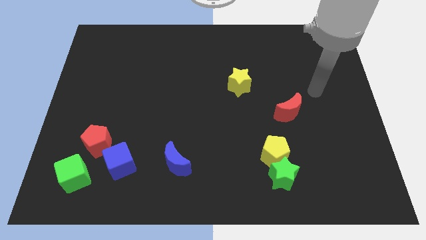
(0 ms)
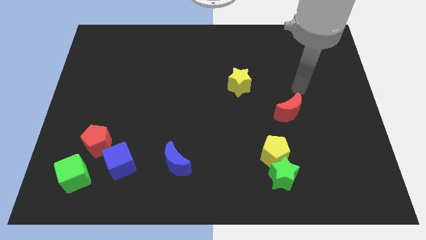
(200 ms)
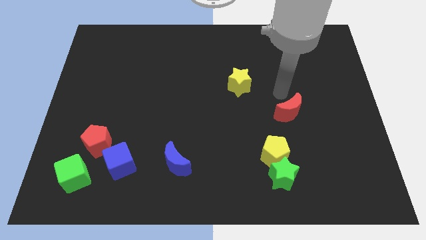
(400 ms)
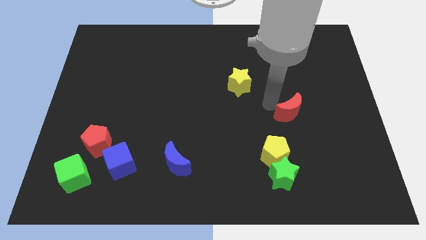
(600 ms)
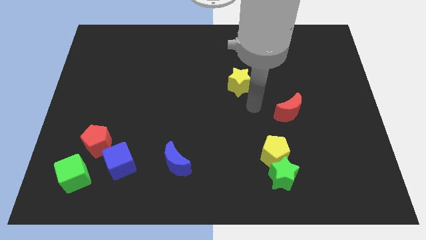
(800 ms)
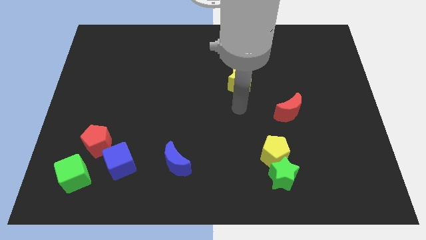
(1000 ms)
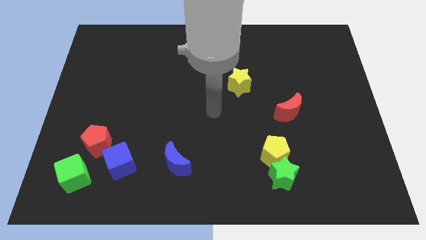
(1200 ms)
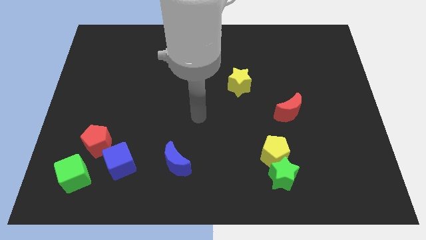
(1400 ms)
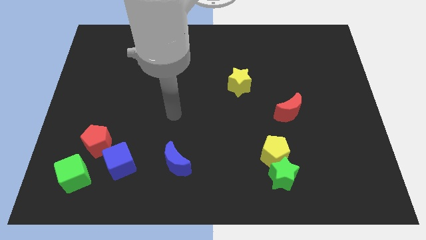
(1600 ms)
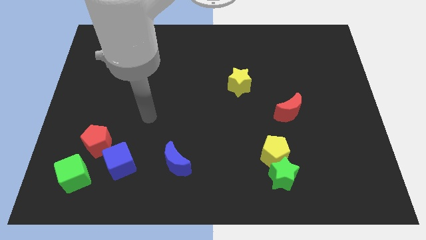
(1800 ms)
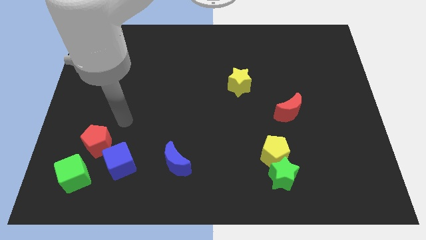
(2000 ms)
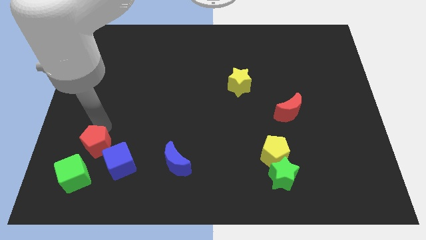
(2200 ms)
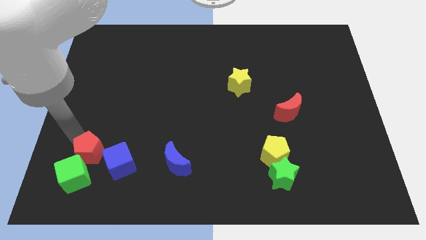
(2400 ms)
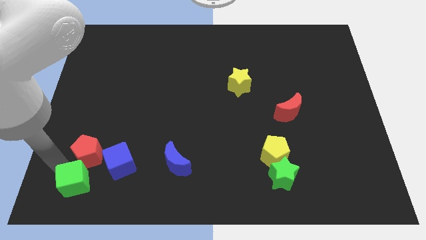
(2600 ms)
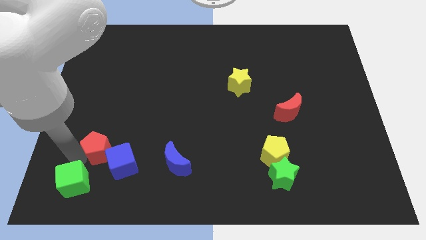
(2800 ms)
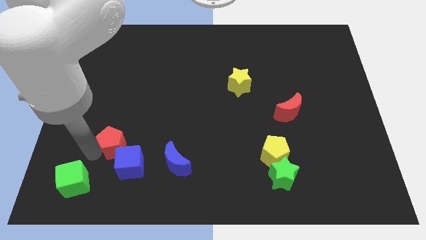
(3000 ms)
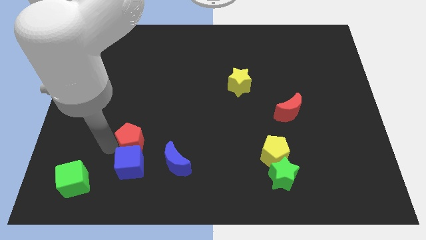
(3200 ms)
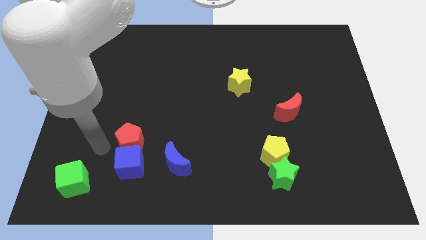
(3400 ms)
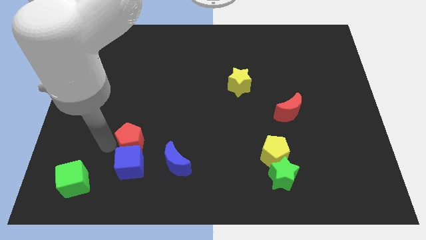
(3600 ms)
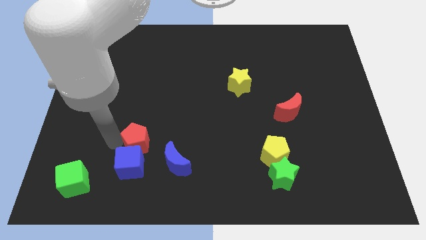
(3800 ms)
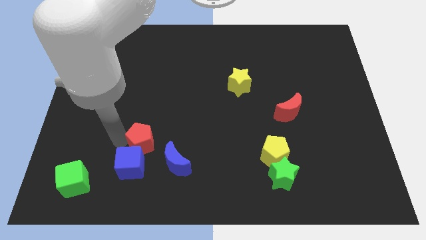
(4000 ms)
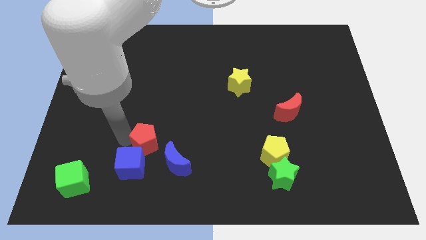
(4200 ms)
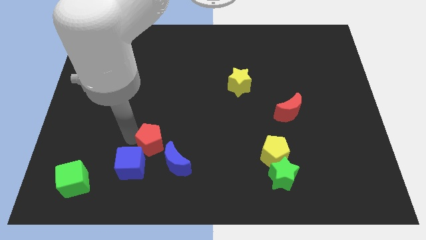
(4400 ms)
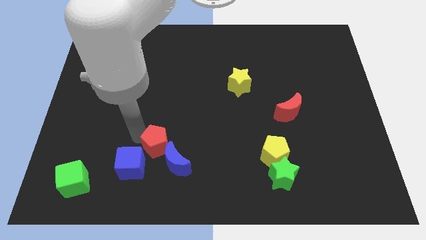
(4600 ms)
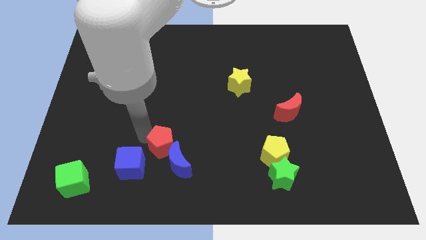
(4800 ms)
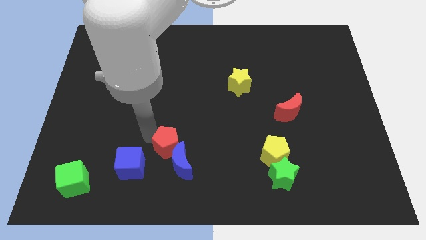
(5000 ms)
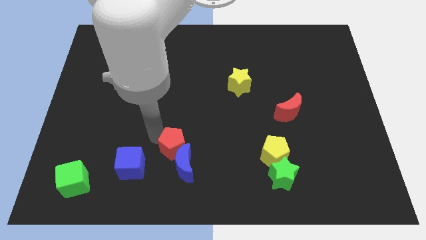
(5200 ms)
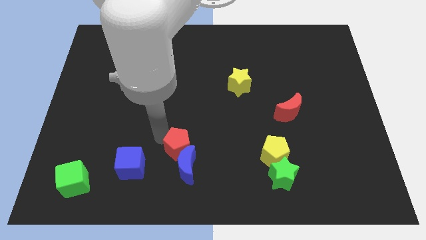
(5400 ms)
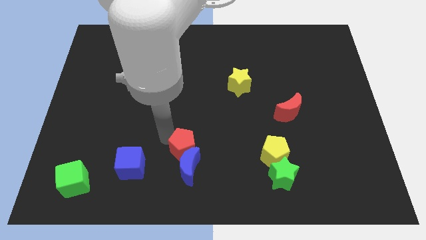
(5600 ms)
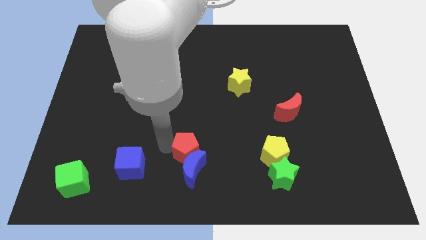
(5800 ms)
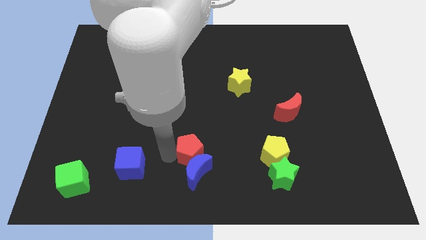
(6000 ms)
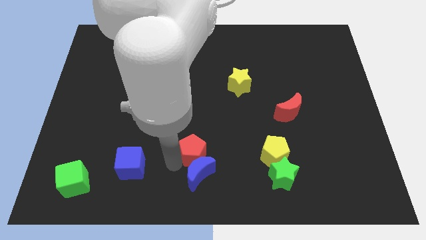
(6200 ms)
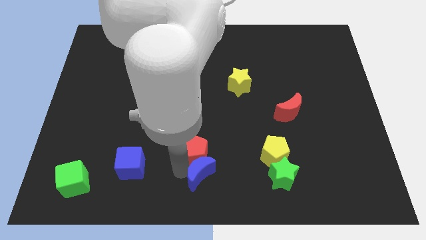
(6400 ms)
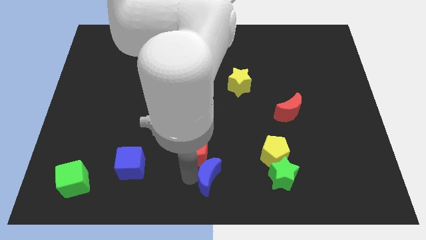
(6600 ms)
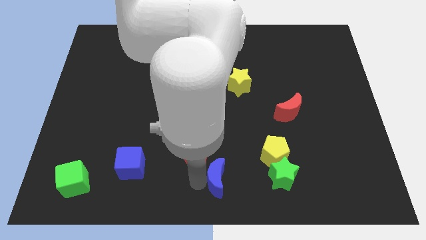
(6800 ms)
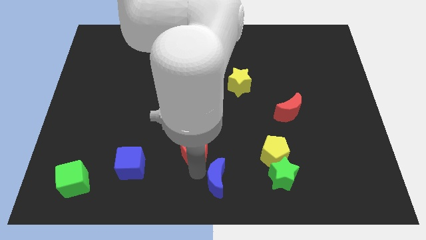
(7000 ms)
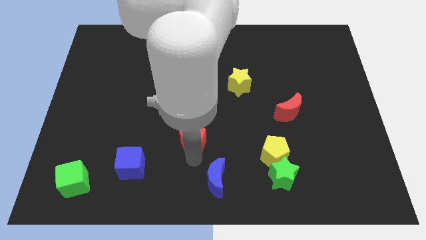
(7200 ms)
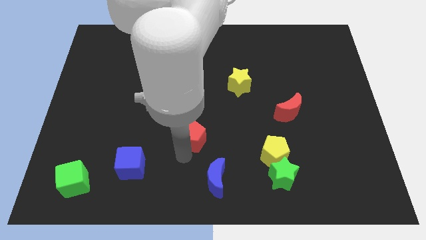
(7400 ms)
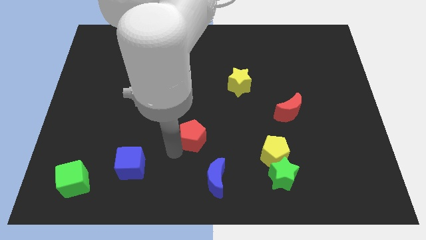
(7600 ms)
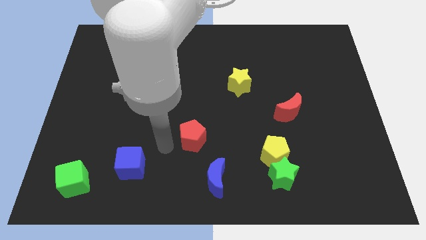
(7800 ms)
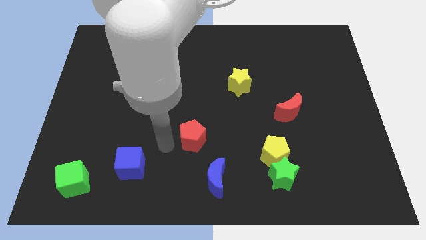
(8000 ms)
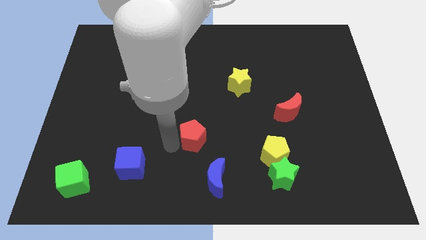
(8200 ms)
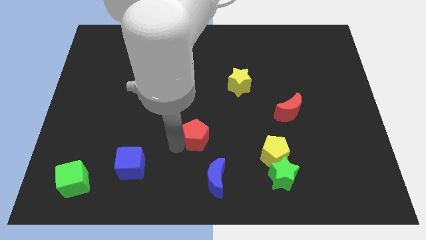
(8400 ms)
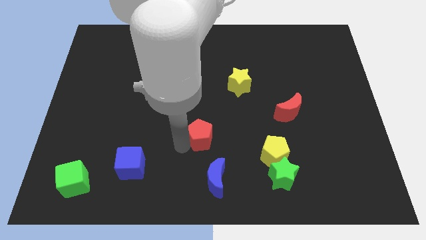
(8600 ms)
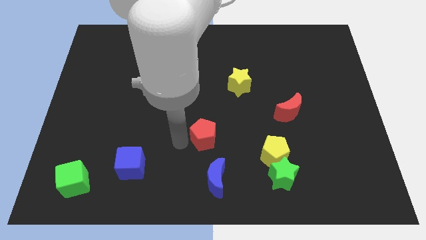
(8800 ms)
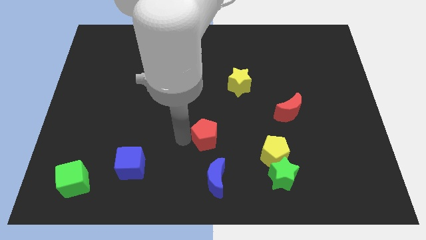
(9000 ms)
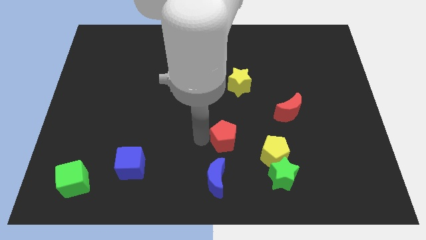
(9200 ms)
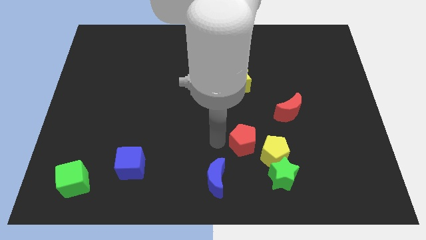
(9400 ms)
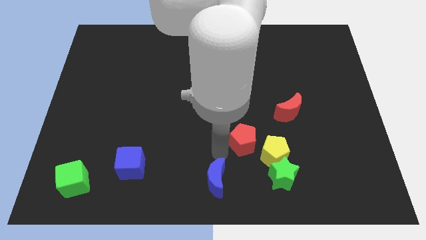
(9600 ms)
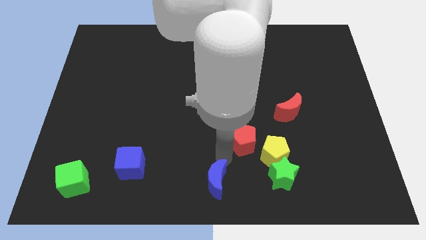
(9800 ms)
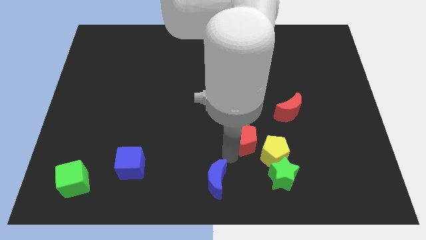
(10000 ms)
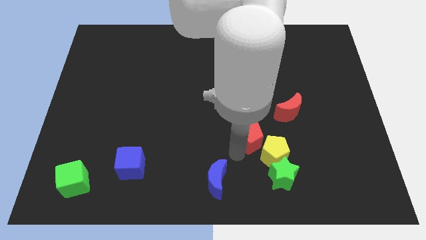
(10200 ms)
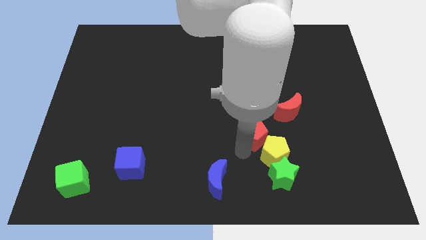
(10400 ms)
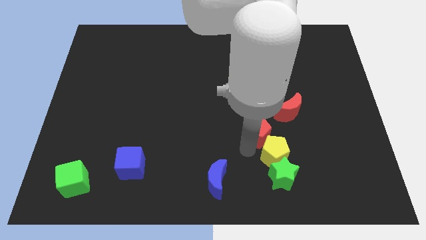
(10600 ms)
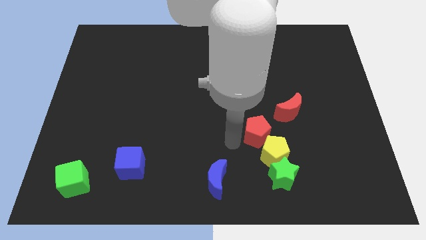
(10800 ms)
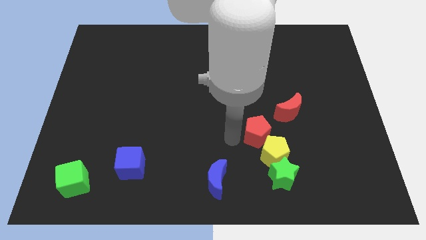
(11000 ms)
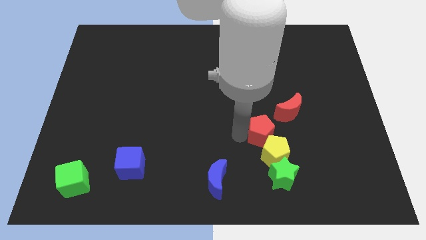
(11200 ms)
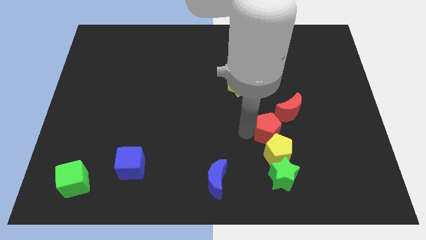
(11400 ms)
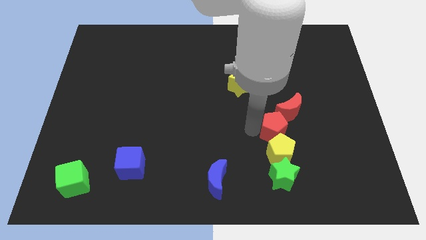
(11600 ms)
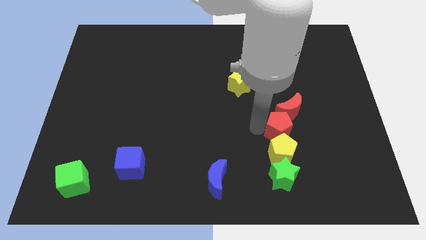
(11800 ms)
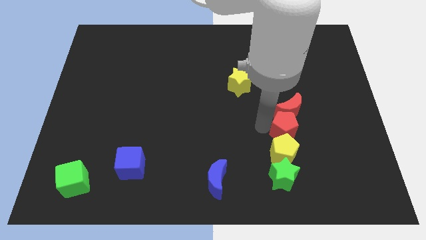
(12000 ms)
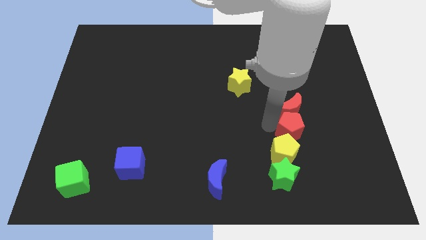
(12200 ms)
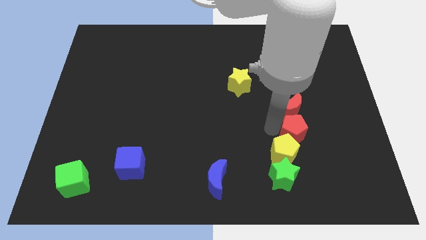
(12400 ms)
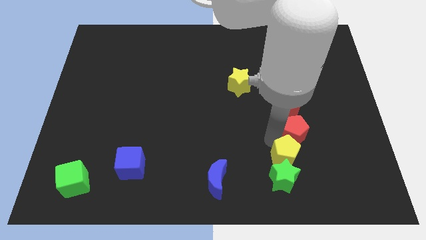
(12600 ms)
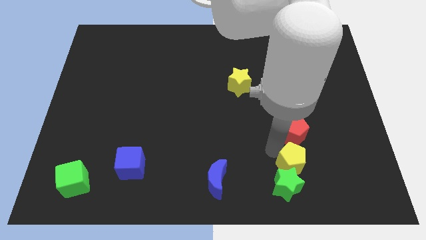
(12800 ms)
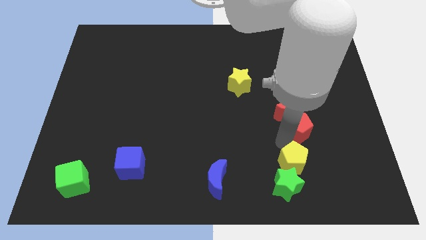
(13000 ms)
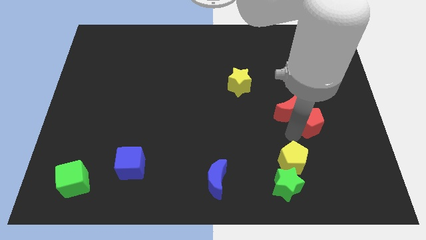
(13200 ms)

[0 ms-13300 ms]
move the red pentagon right of the red moon

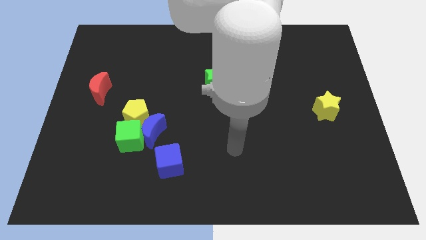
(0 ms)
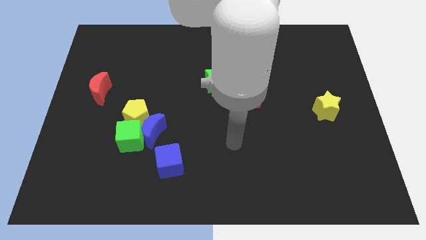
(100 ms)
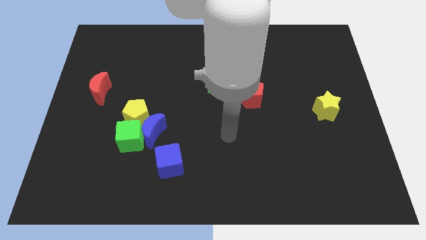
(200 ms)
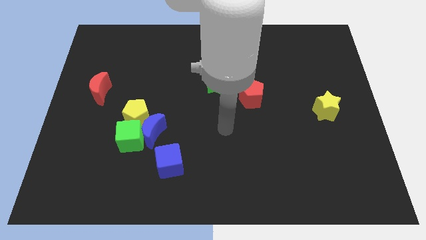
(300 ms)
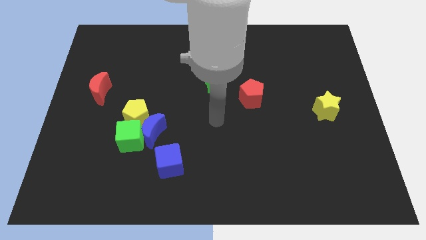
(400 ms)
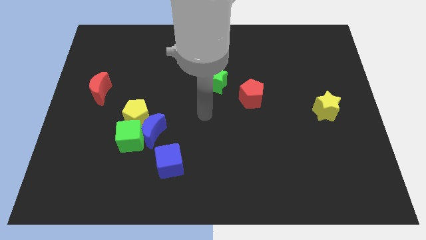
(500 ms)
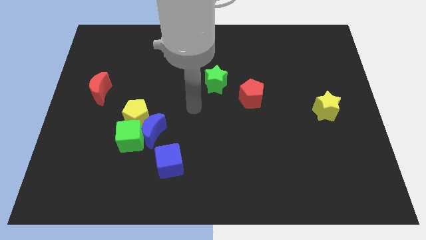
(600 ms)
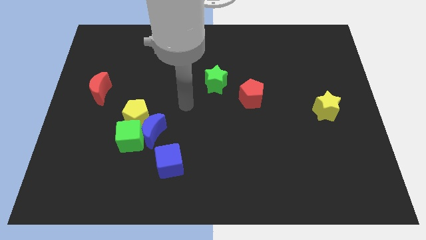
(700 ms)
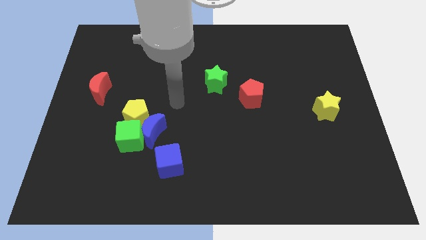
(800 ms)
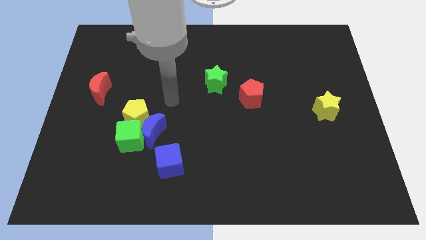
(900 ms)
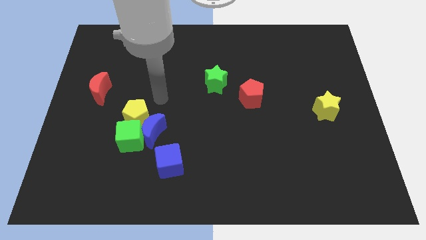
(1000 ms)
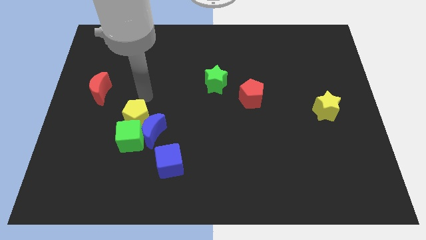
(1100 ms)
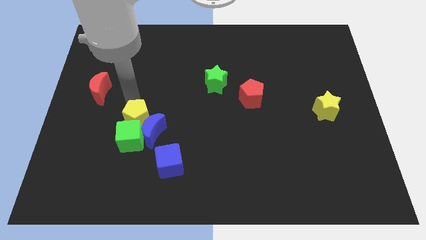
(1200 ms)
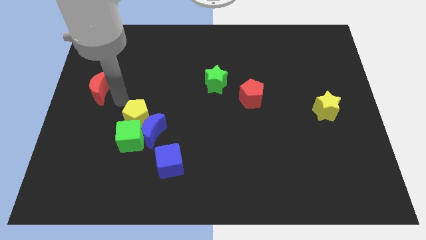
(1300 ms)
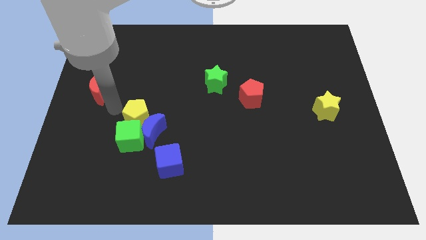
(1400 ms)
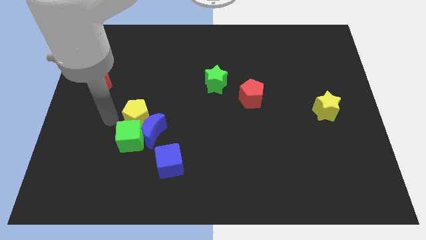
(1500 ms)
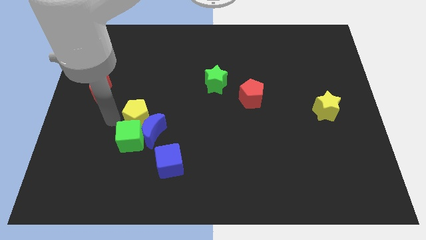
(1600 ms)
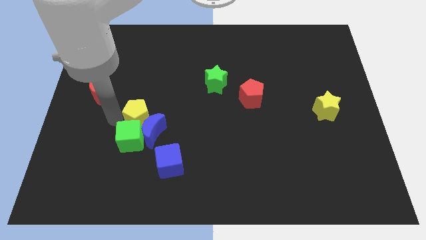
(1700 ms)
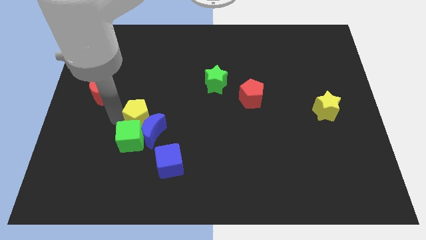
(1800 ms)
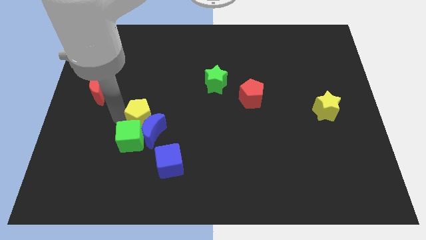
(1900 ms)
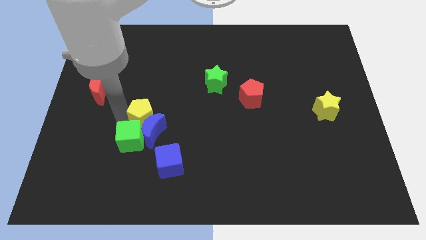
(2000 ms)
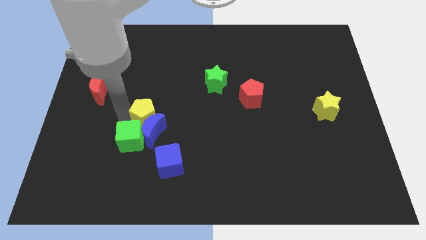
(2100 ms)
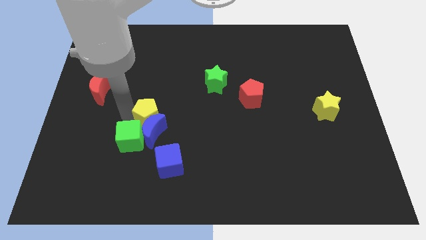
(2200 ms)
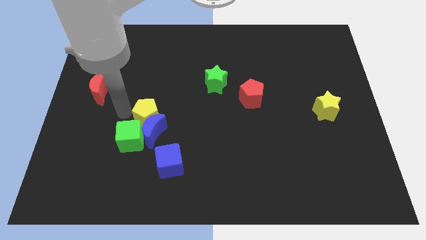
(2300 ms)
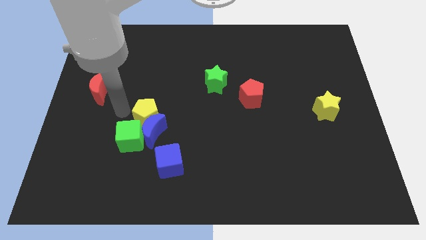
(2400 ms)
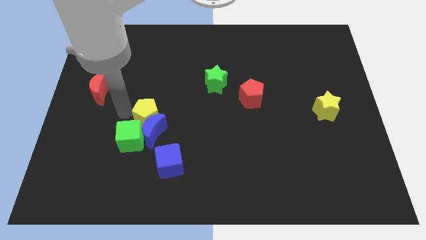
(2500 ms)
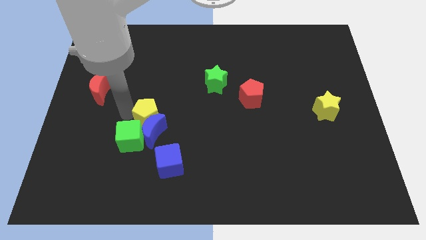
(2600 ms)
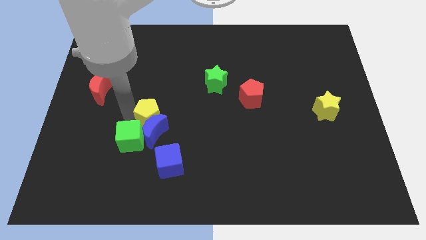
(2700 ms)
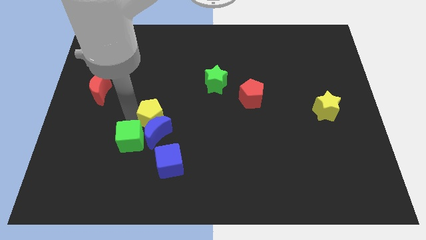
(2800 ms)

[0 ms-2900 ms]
put the yellow pentagon to the top of the blue cube
